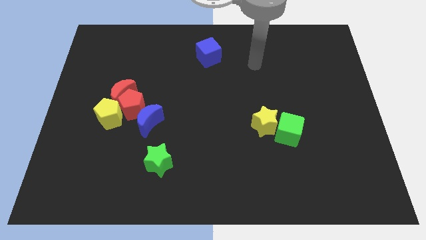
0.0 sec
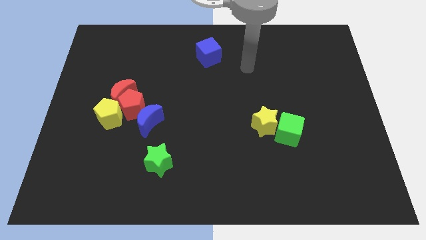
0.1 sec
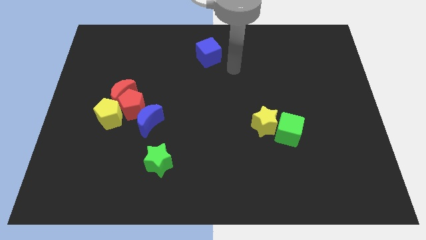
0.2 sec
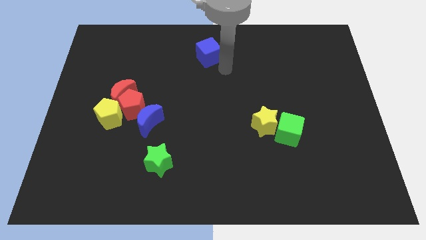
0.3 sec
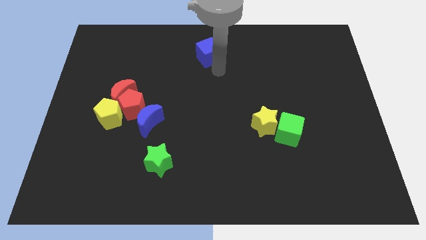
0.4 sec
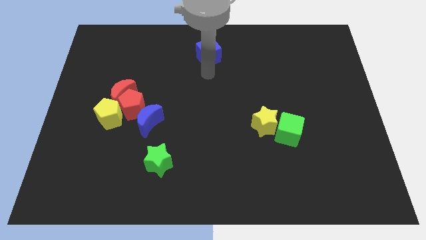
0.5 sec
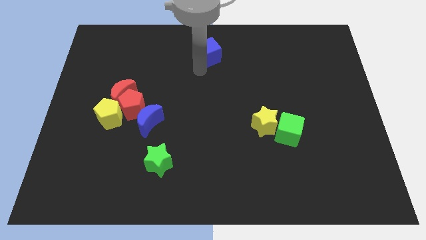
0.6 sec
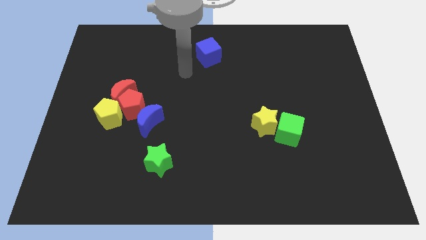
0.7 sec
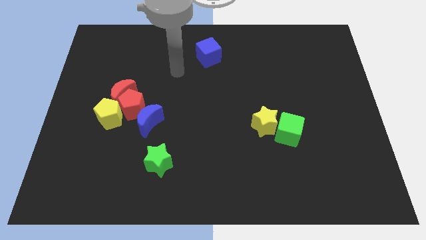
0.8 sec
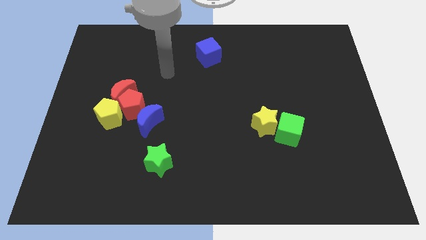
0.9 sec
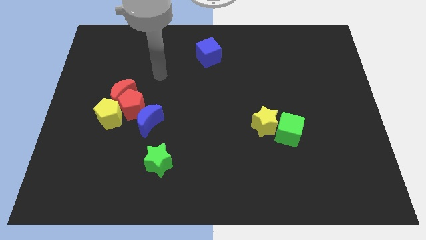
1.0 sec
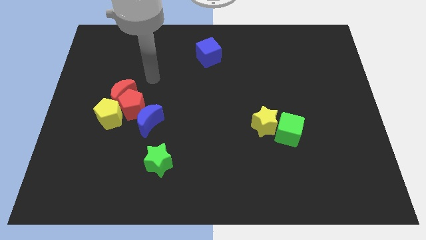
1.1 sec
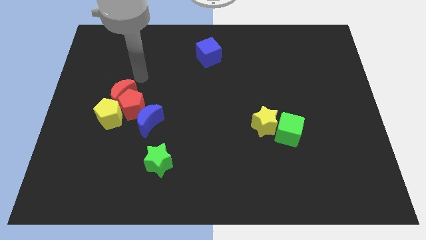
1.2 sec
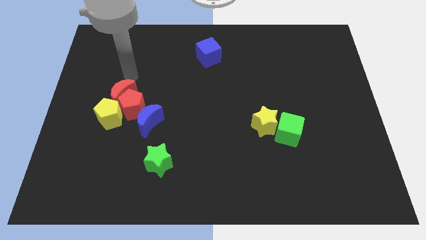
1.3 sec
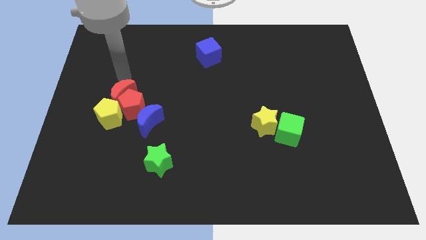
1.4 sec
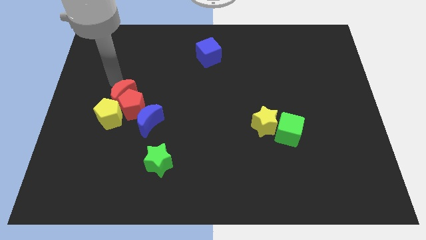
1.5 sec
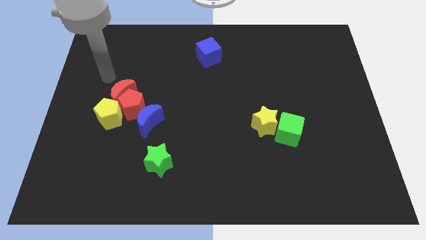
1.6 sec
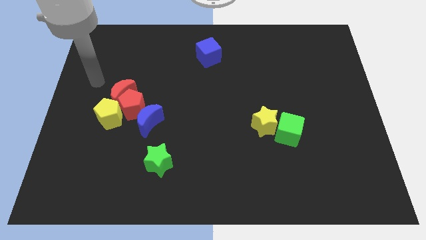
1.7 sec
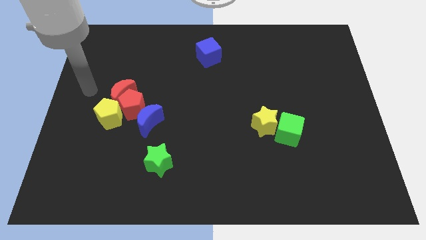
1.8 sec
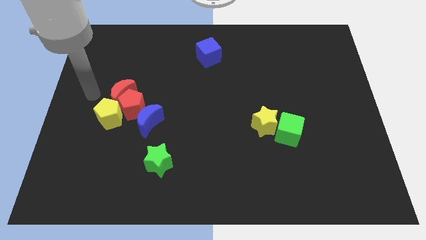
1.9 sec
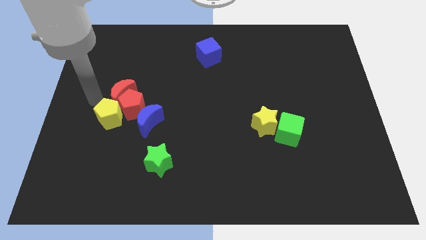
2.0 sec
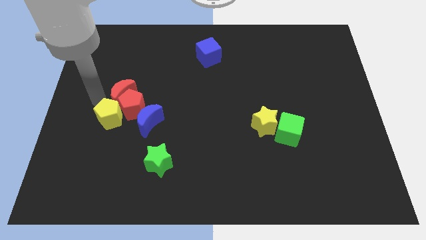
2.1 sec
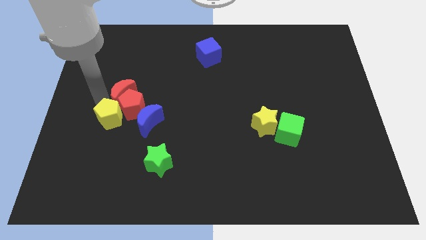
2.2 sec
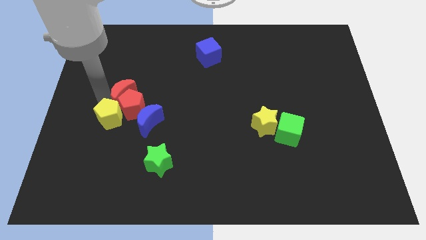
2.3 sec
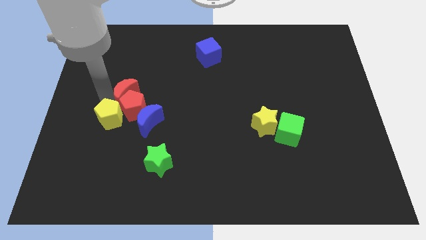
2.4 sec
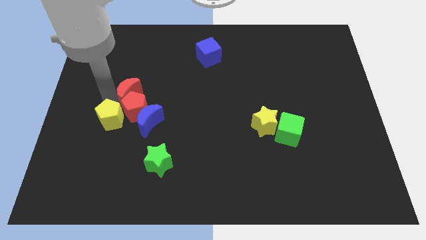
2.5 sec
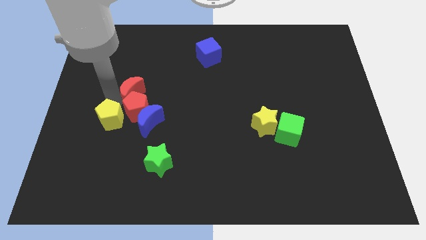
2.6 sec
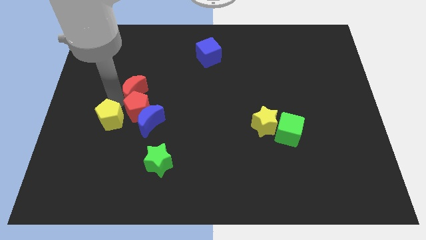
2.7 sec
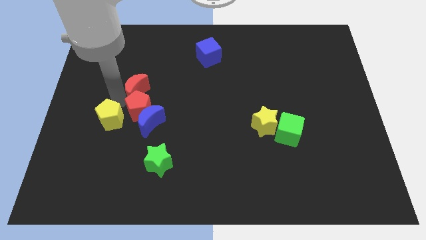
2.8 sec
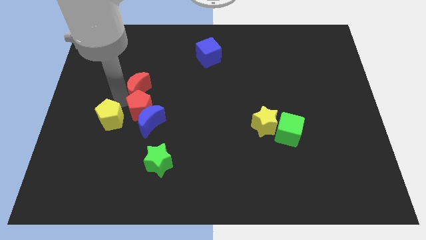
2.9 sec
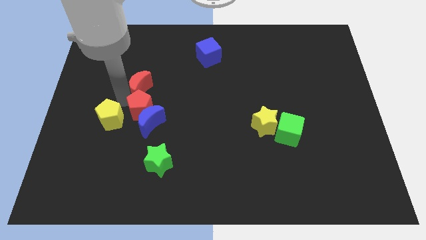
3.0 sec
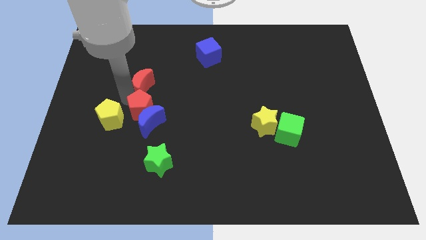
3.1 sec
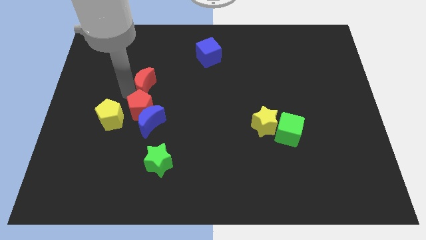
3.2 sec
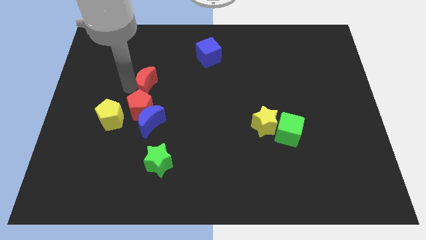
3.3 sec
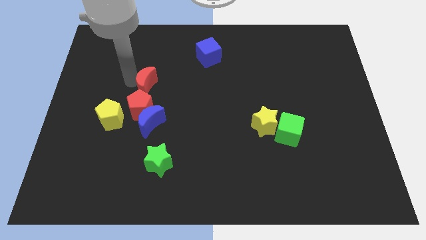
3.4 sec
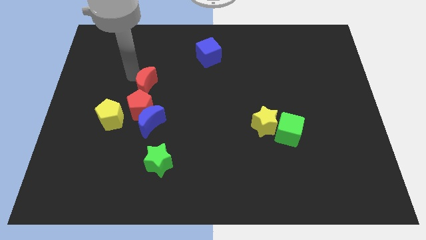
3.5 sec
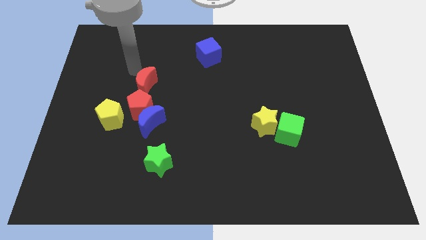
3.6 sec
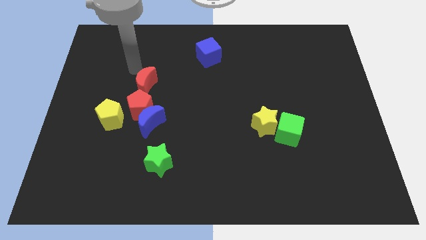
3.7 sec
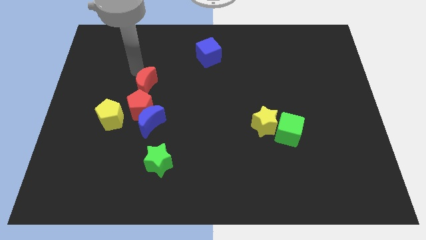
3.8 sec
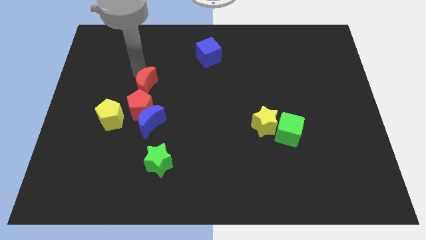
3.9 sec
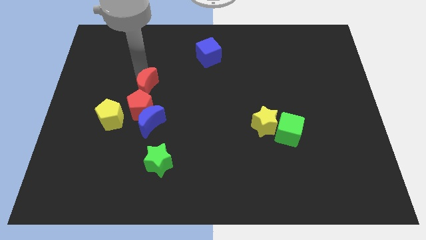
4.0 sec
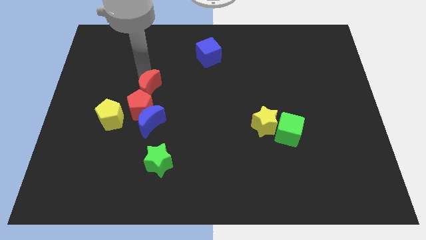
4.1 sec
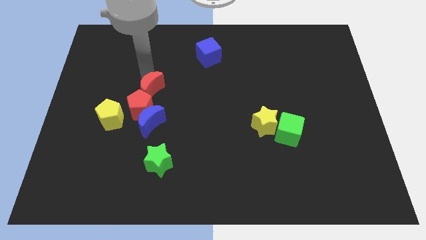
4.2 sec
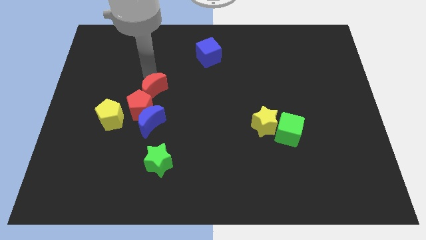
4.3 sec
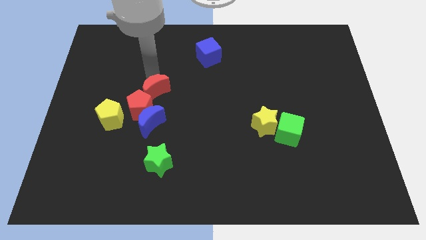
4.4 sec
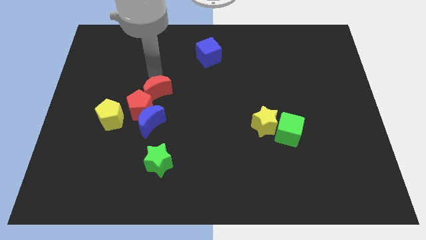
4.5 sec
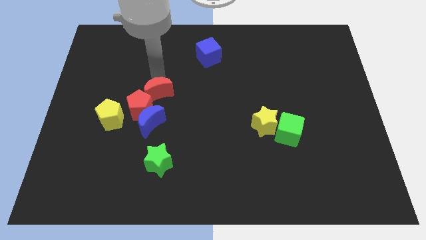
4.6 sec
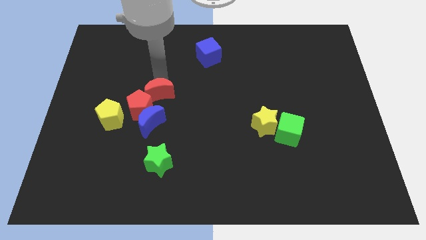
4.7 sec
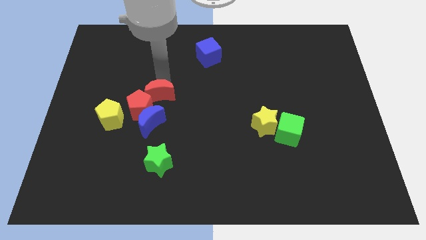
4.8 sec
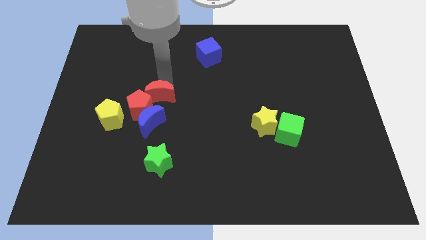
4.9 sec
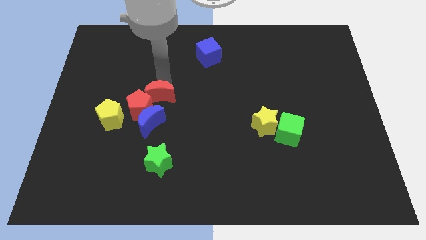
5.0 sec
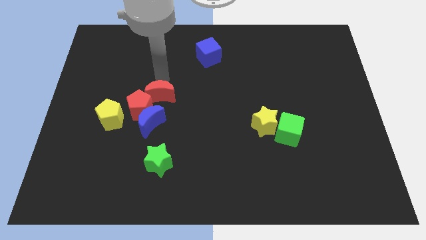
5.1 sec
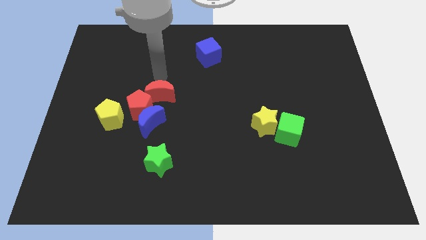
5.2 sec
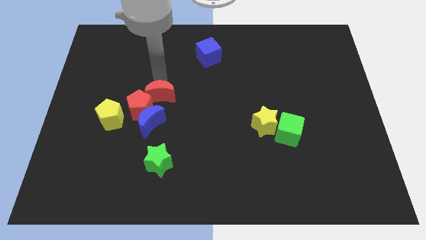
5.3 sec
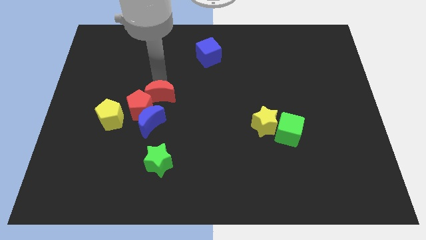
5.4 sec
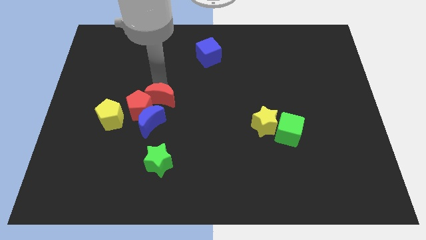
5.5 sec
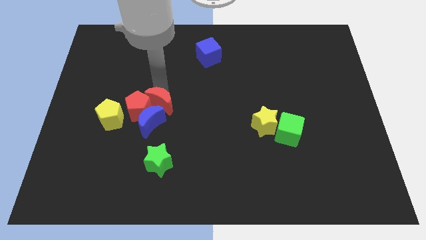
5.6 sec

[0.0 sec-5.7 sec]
put the red moon to the top side of the green star

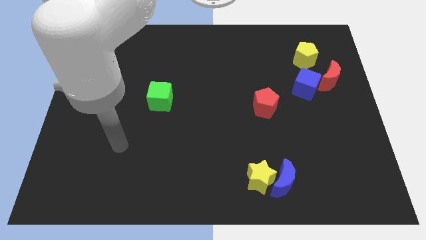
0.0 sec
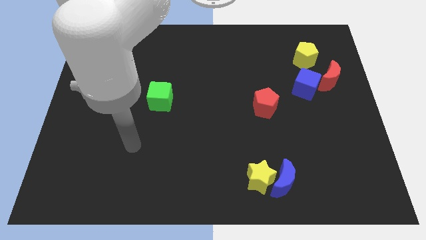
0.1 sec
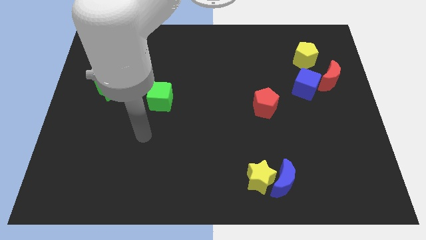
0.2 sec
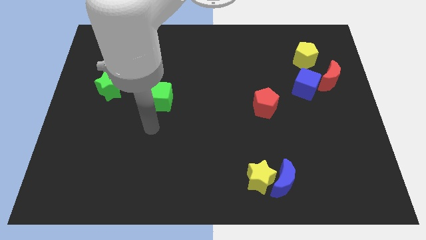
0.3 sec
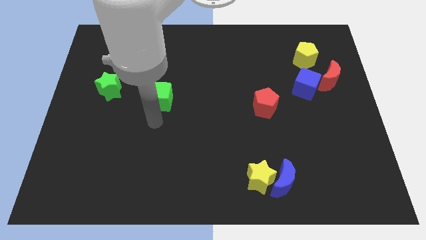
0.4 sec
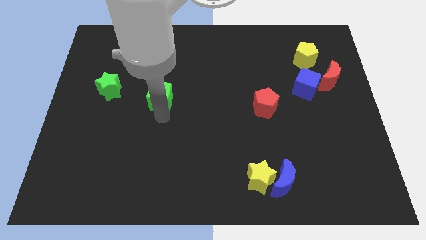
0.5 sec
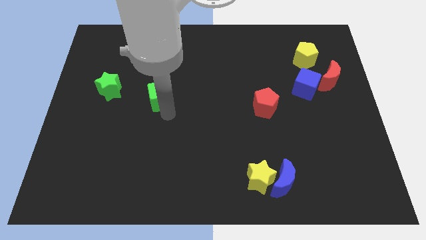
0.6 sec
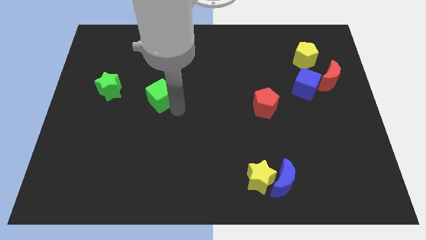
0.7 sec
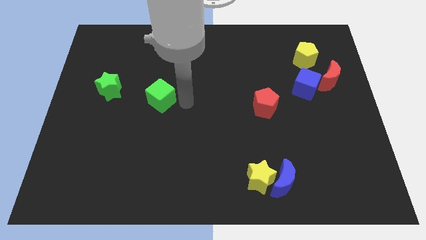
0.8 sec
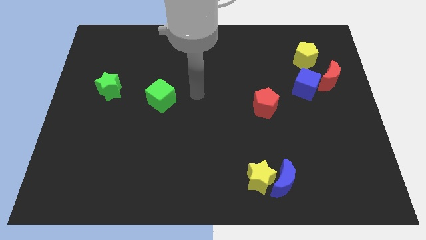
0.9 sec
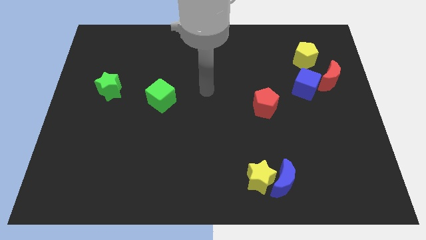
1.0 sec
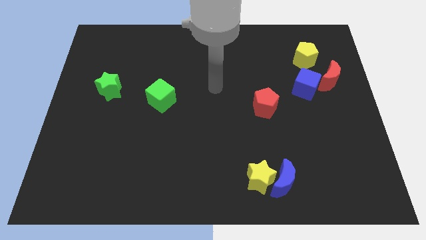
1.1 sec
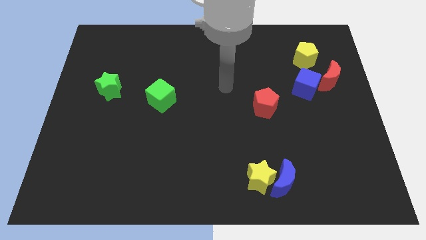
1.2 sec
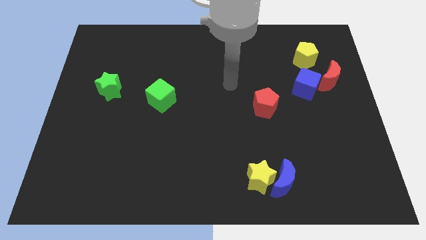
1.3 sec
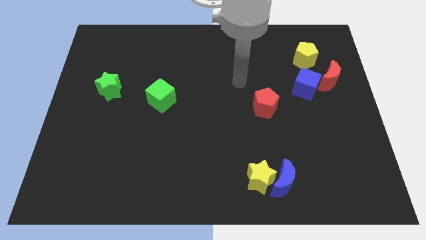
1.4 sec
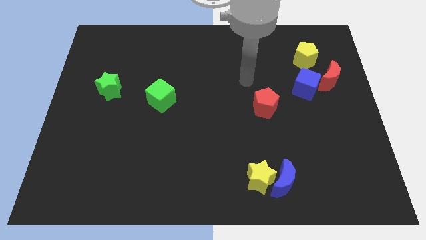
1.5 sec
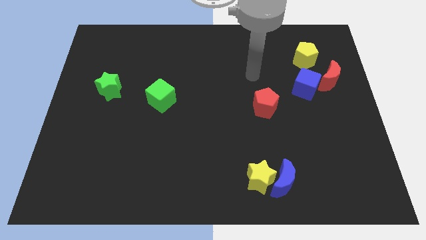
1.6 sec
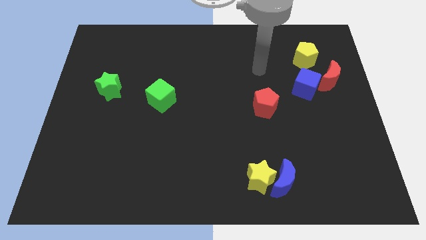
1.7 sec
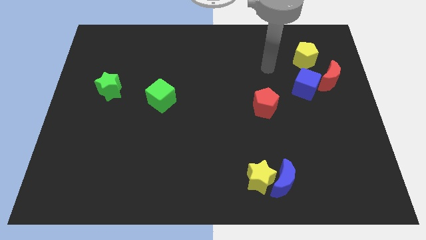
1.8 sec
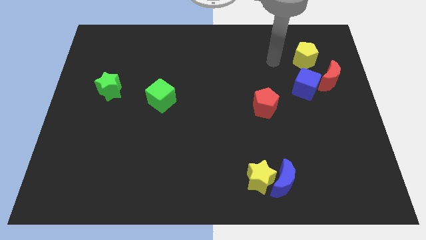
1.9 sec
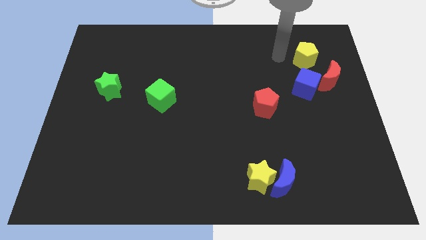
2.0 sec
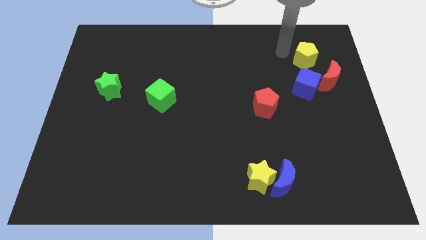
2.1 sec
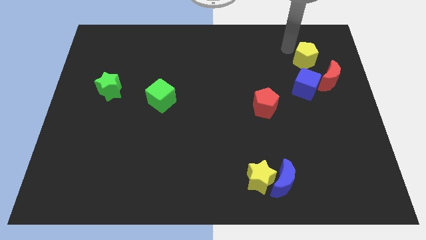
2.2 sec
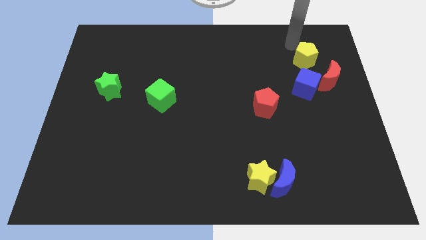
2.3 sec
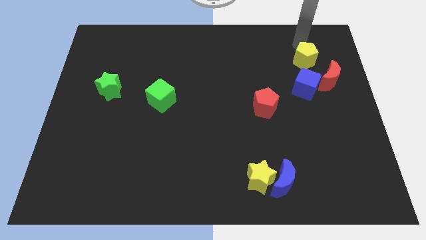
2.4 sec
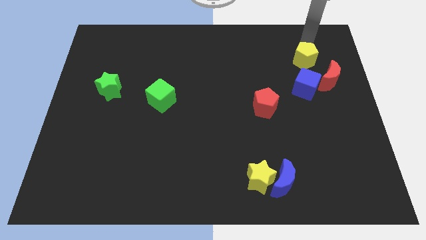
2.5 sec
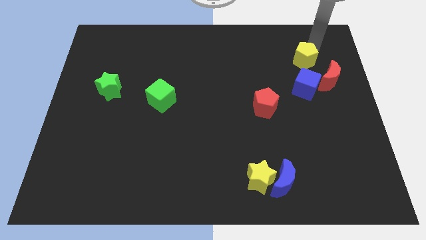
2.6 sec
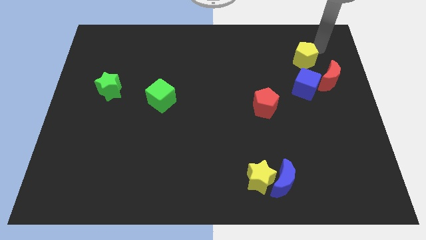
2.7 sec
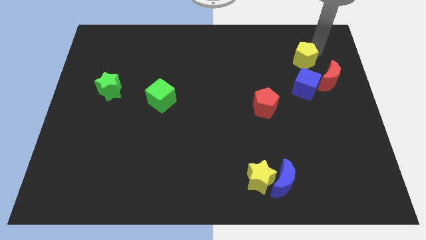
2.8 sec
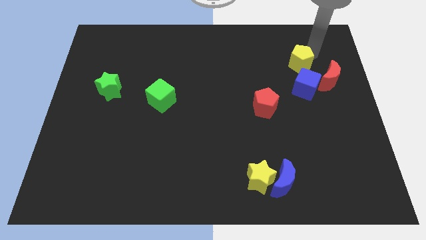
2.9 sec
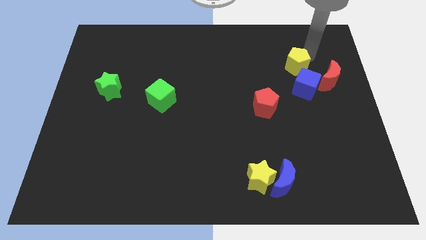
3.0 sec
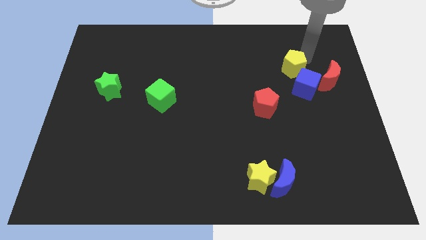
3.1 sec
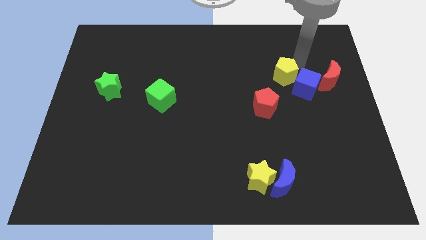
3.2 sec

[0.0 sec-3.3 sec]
slide the yellow pentagon left of the blue cube
